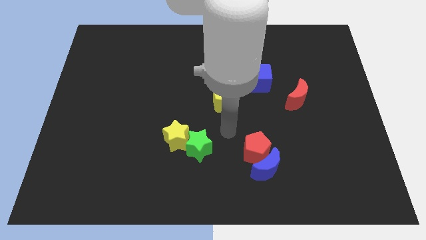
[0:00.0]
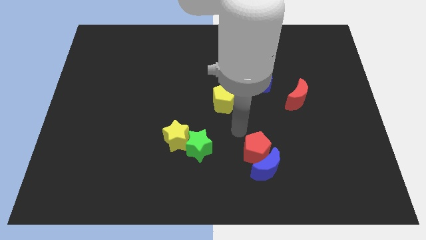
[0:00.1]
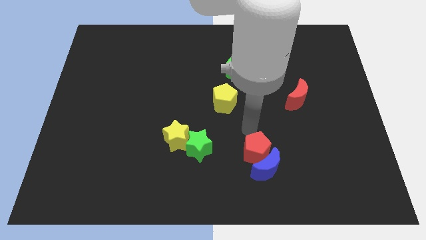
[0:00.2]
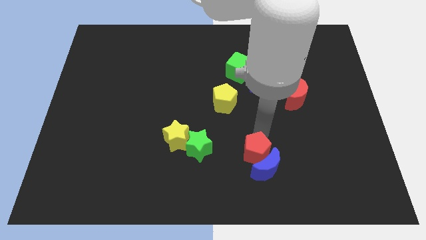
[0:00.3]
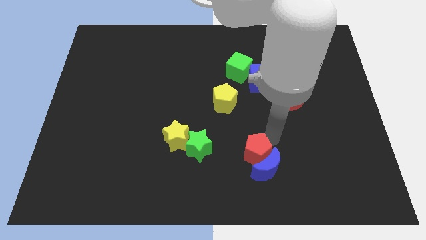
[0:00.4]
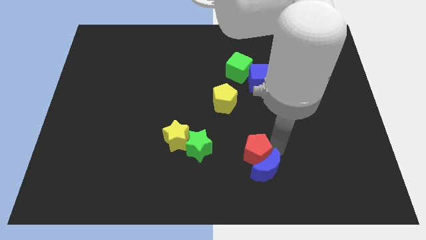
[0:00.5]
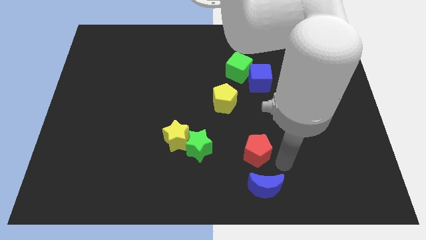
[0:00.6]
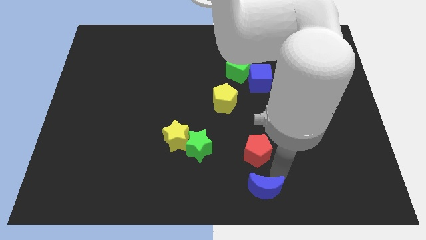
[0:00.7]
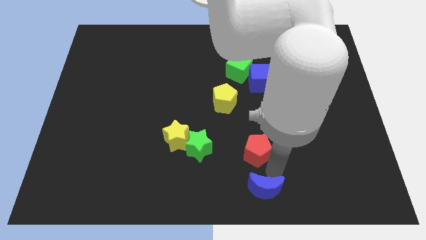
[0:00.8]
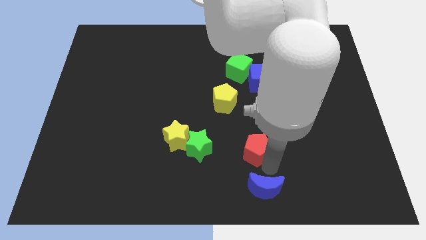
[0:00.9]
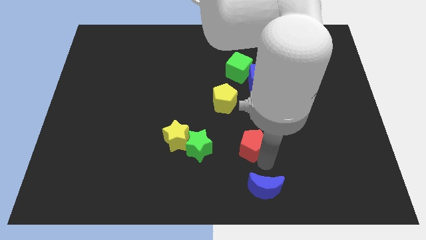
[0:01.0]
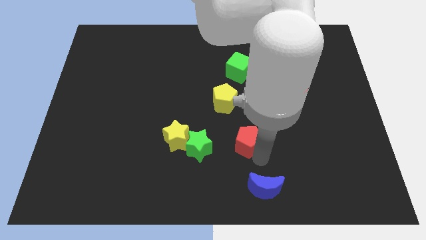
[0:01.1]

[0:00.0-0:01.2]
pull the red pentagon apart from the blue moon

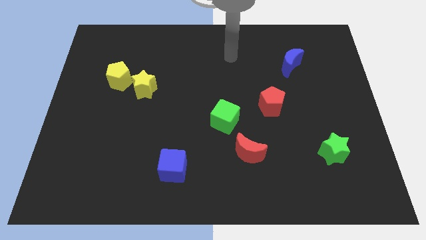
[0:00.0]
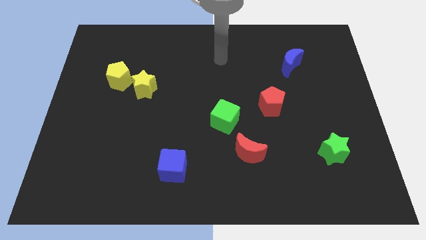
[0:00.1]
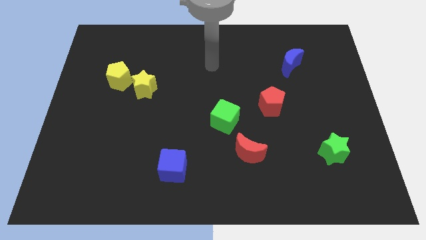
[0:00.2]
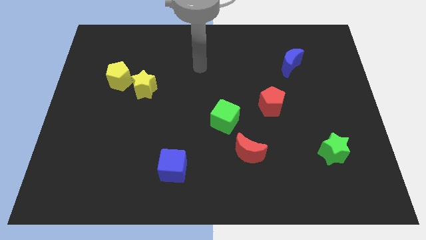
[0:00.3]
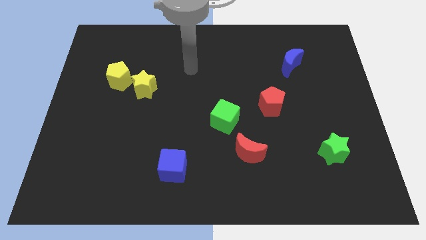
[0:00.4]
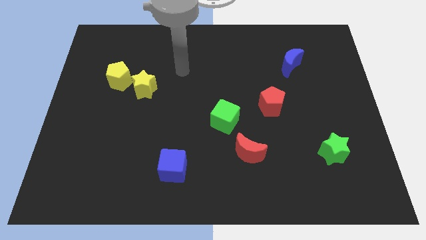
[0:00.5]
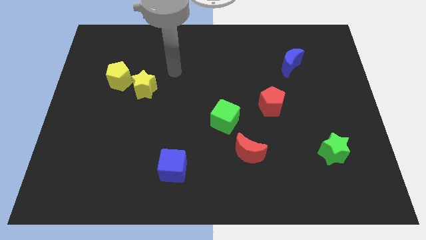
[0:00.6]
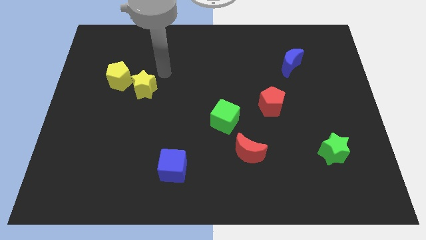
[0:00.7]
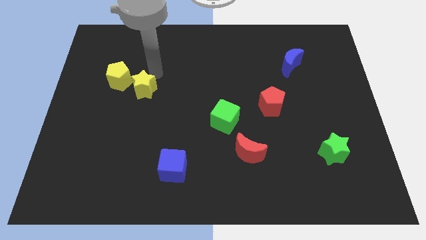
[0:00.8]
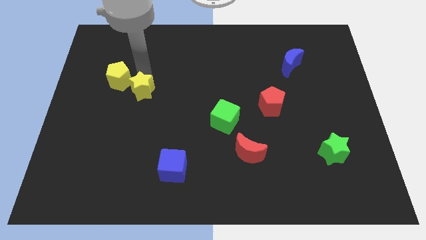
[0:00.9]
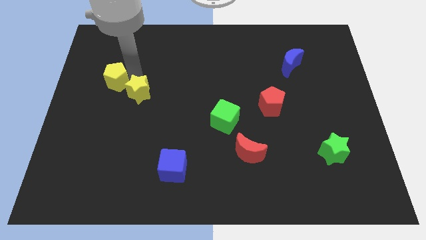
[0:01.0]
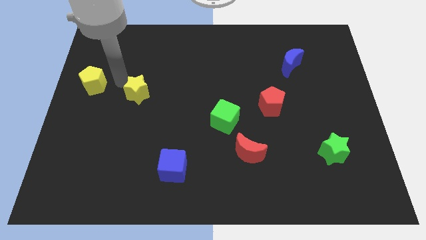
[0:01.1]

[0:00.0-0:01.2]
pull the yellow star apart from the yellow pentagon

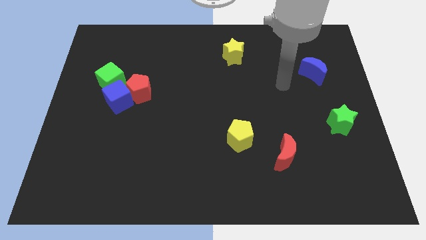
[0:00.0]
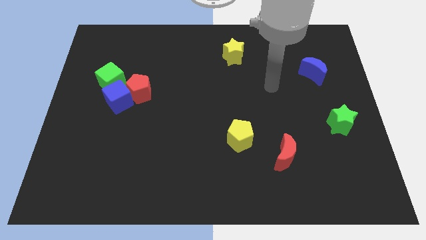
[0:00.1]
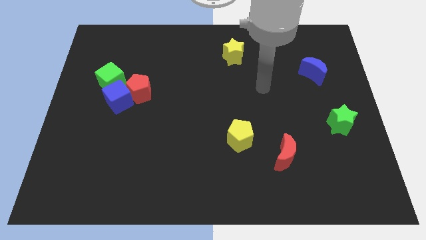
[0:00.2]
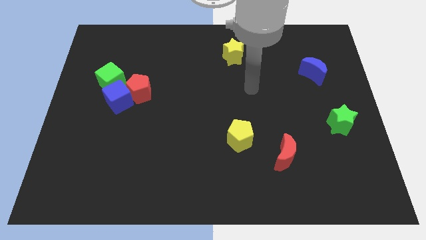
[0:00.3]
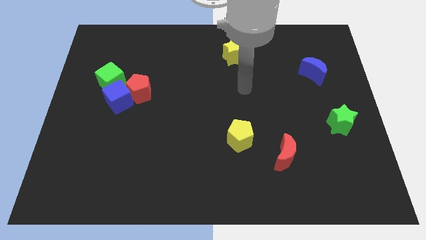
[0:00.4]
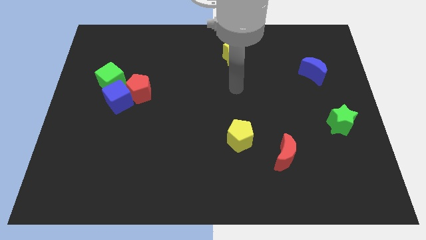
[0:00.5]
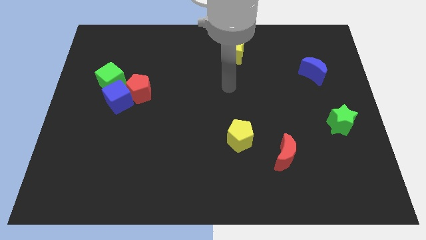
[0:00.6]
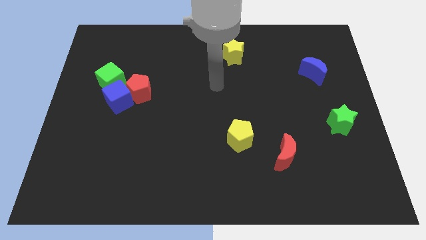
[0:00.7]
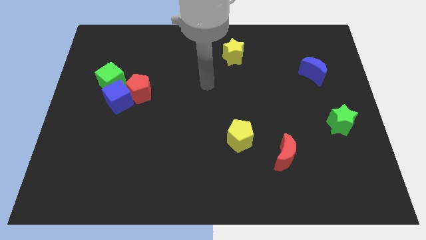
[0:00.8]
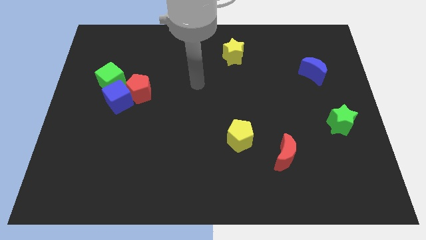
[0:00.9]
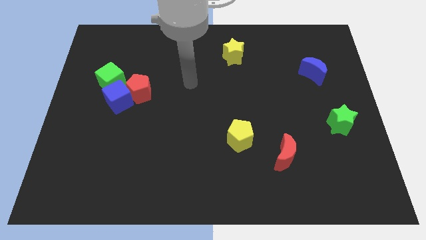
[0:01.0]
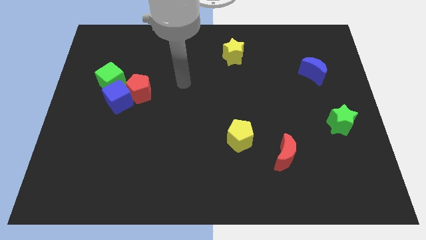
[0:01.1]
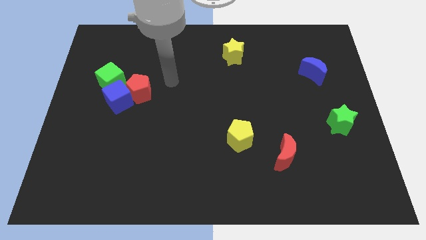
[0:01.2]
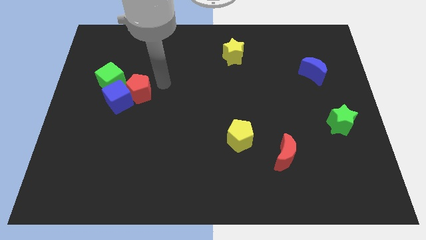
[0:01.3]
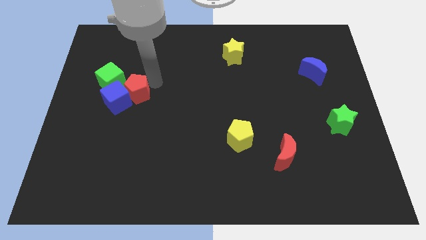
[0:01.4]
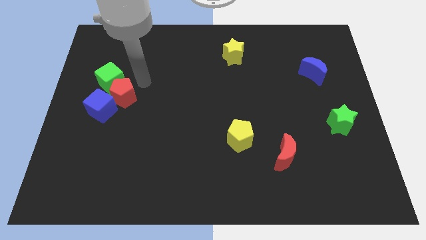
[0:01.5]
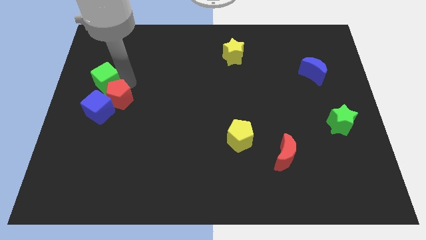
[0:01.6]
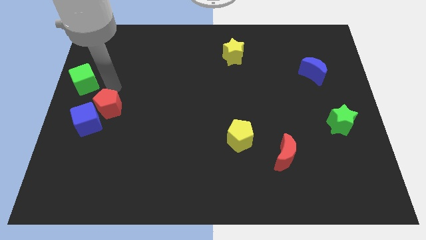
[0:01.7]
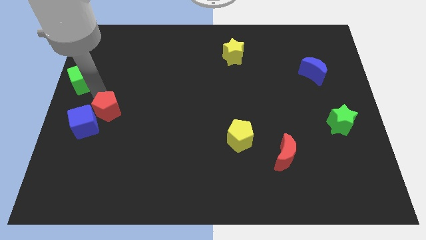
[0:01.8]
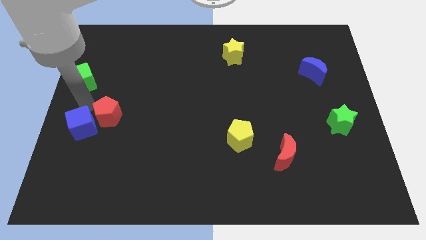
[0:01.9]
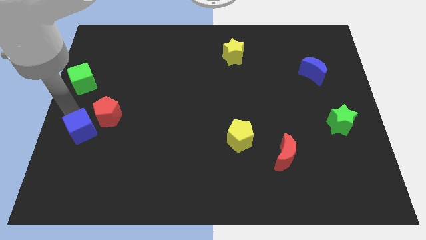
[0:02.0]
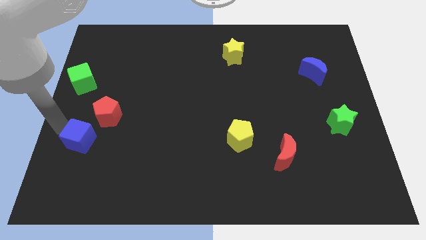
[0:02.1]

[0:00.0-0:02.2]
move the blue cube away from the red pentagon and green cube

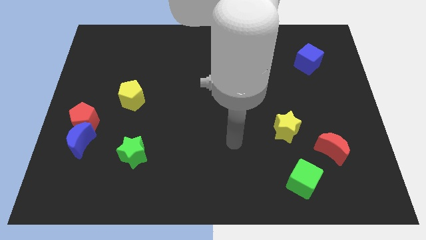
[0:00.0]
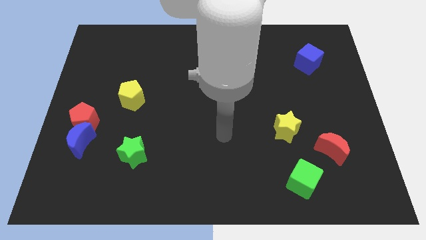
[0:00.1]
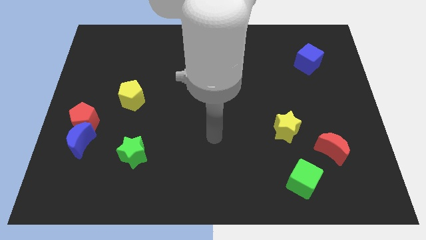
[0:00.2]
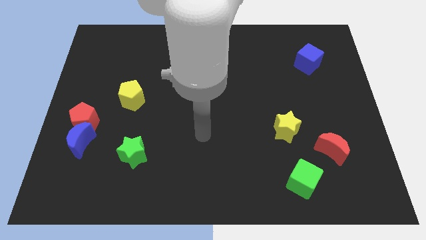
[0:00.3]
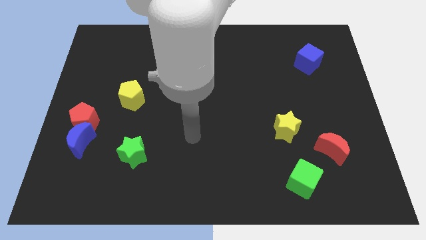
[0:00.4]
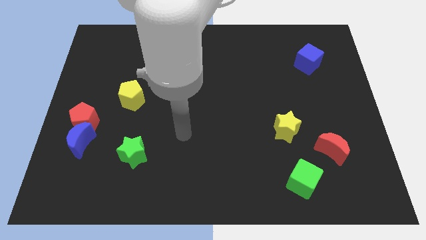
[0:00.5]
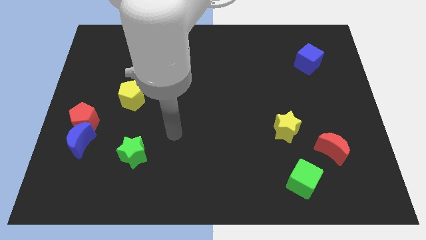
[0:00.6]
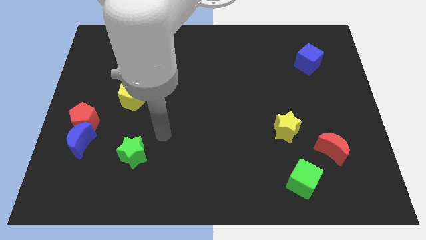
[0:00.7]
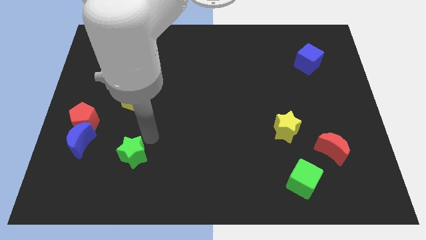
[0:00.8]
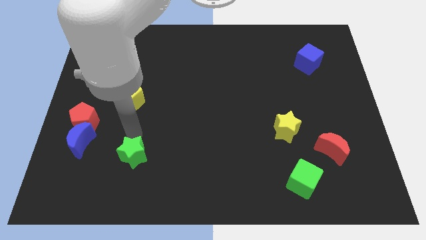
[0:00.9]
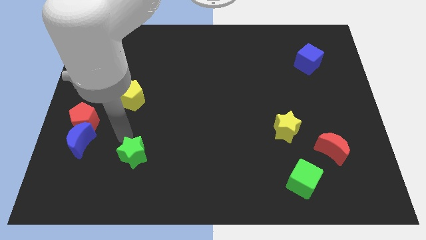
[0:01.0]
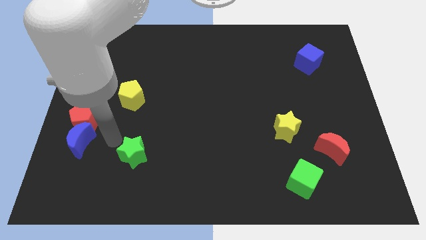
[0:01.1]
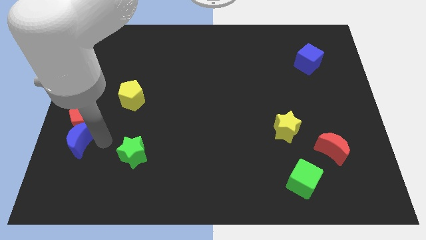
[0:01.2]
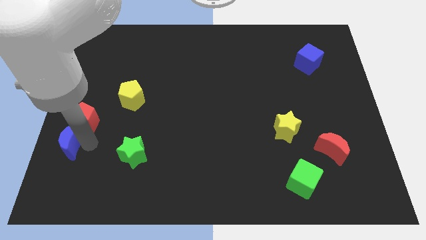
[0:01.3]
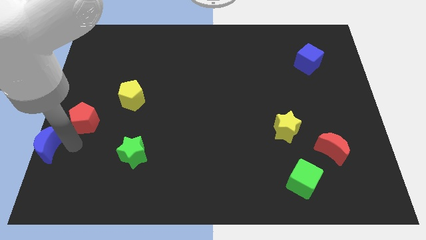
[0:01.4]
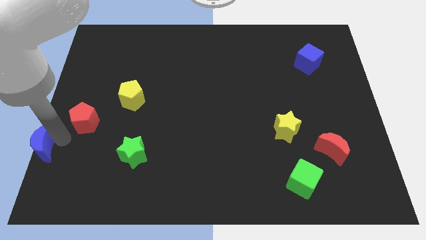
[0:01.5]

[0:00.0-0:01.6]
separate the red pentagon from the blue moon

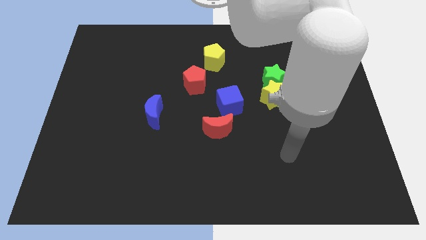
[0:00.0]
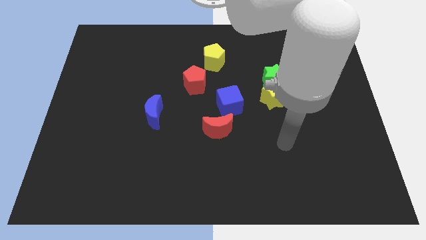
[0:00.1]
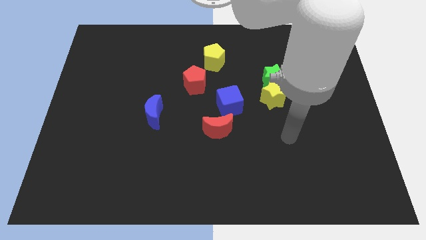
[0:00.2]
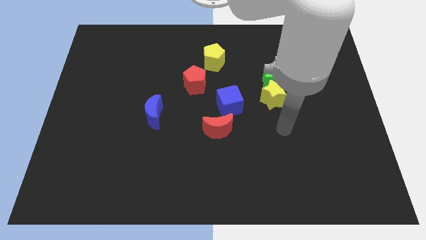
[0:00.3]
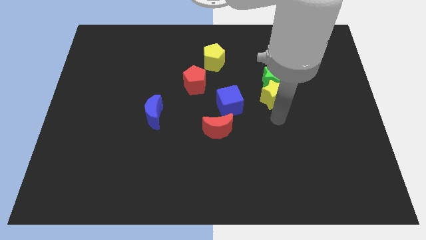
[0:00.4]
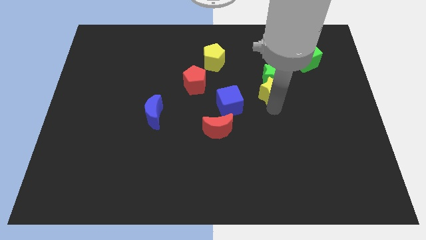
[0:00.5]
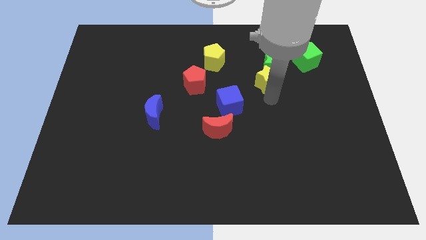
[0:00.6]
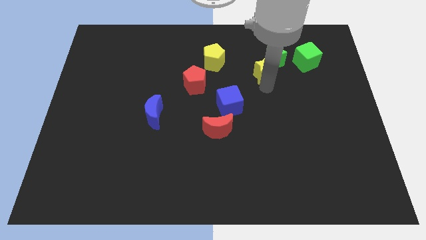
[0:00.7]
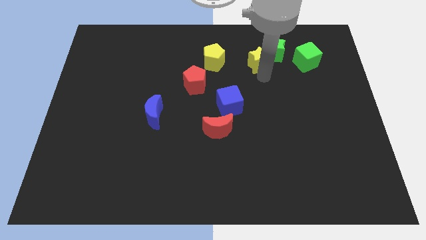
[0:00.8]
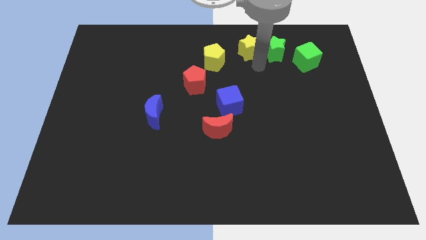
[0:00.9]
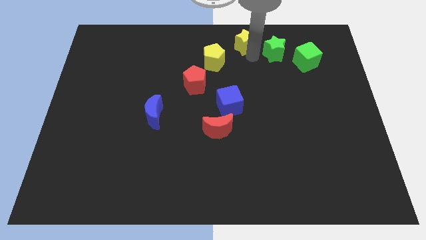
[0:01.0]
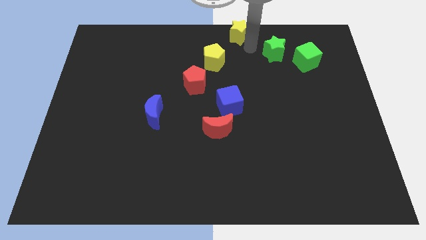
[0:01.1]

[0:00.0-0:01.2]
move the green star away from the yellow star

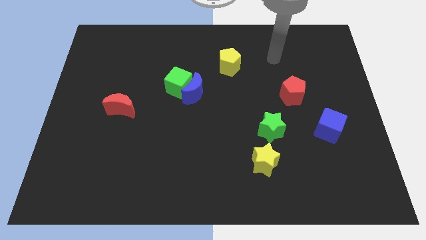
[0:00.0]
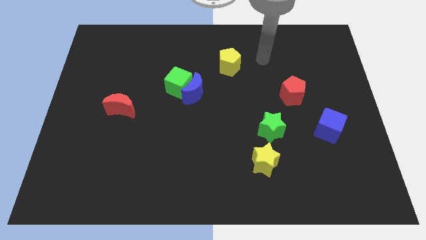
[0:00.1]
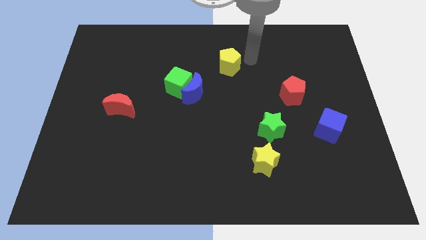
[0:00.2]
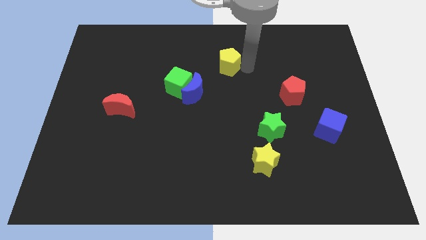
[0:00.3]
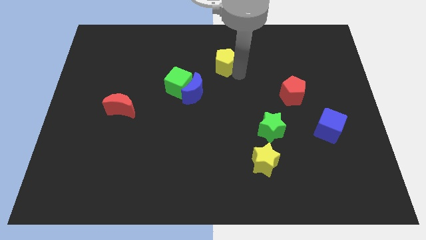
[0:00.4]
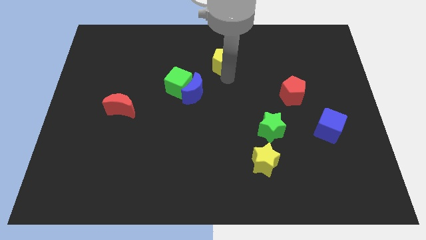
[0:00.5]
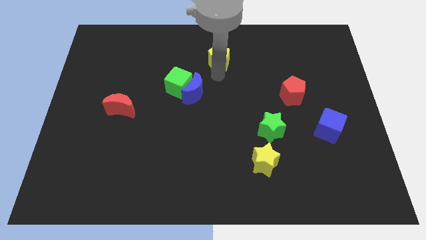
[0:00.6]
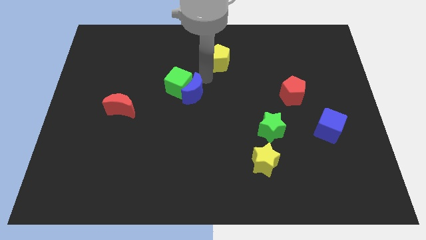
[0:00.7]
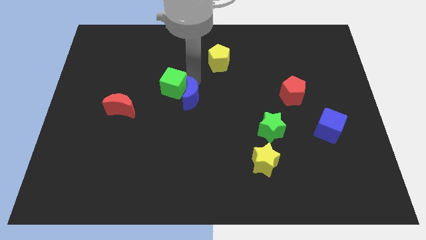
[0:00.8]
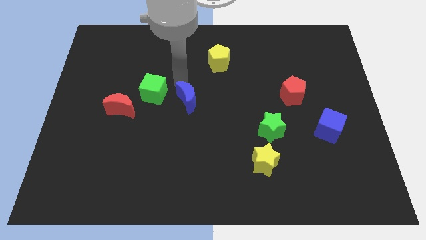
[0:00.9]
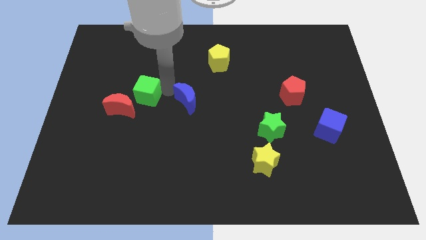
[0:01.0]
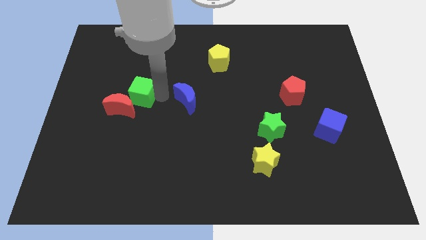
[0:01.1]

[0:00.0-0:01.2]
move the blue moon away from the green cube

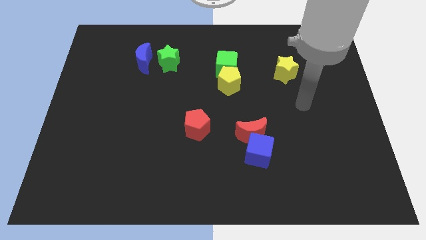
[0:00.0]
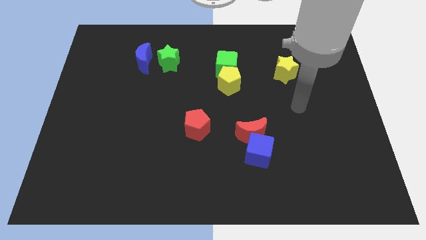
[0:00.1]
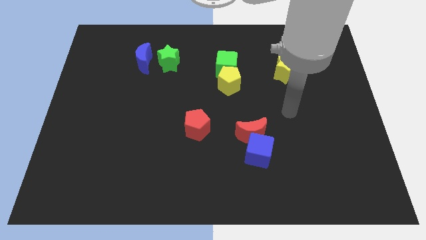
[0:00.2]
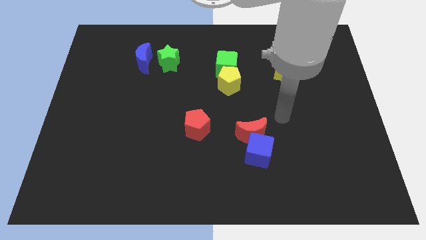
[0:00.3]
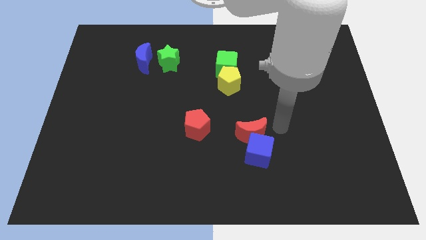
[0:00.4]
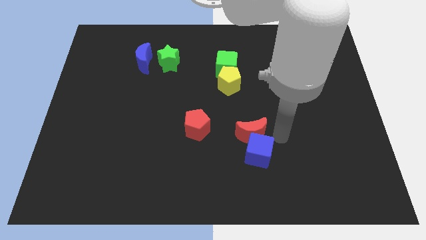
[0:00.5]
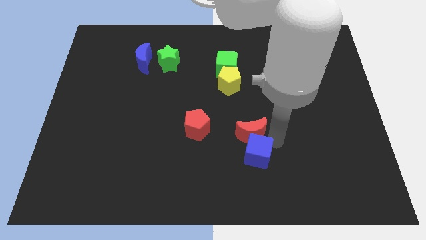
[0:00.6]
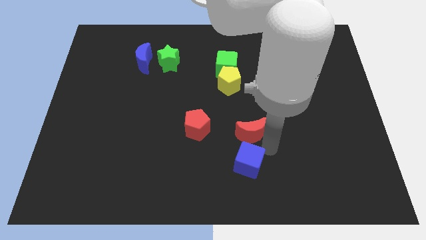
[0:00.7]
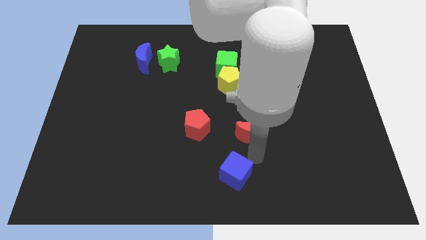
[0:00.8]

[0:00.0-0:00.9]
move the red moon away from the blue cube
